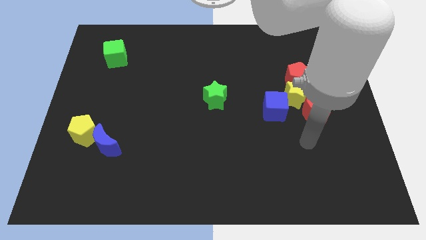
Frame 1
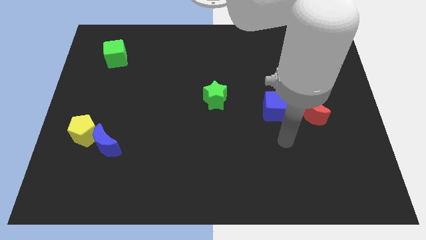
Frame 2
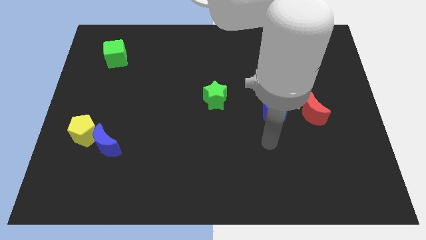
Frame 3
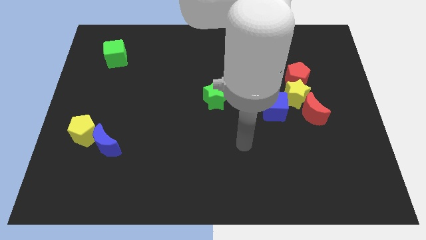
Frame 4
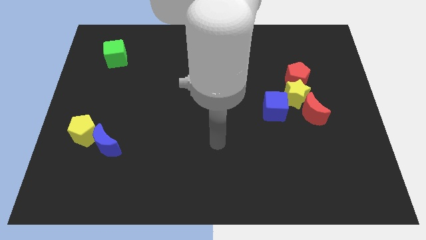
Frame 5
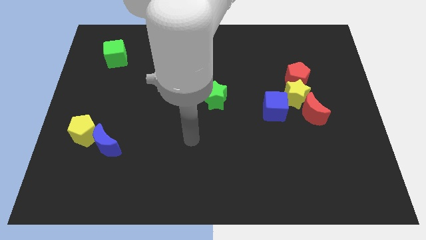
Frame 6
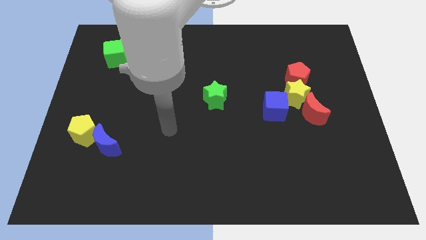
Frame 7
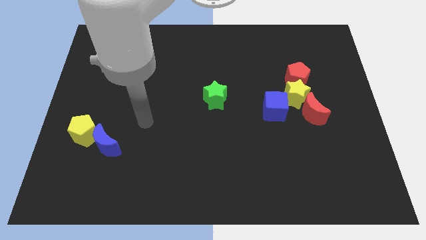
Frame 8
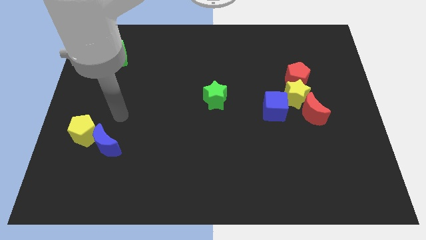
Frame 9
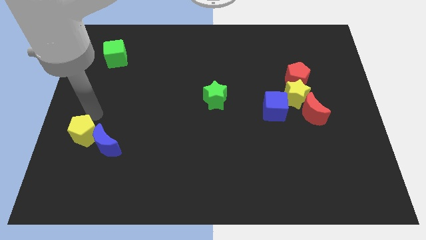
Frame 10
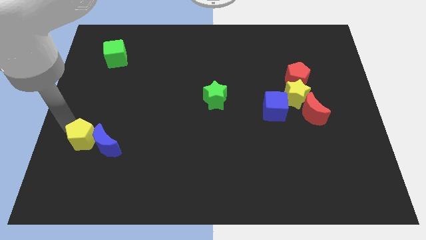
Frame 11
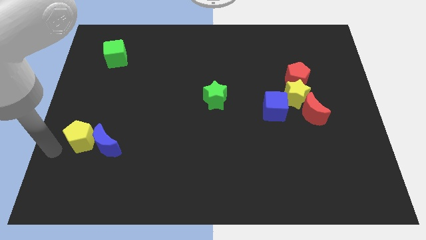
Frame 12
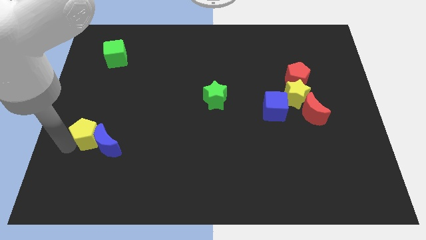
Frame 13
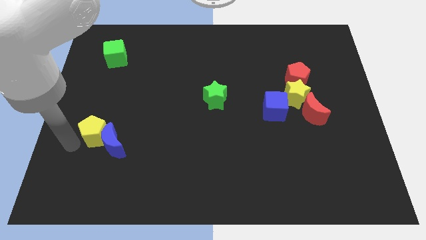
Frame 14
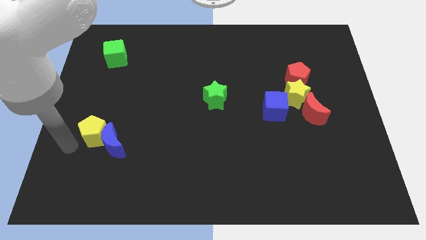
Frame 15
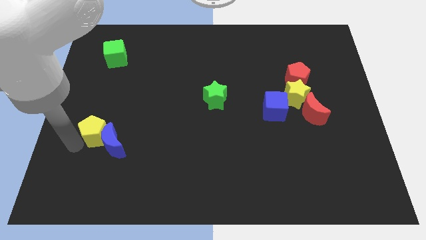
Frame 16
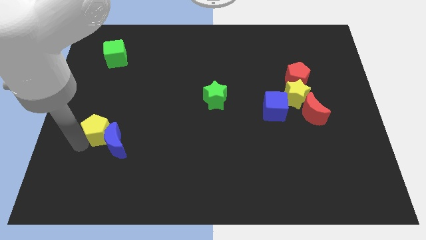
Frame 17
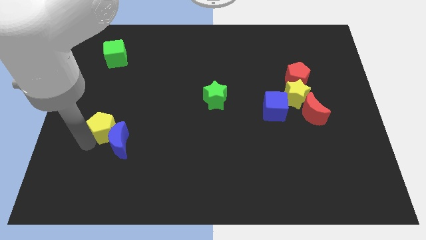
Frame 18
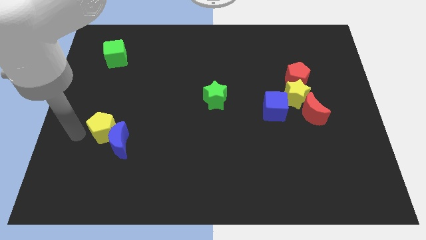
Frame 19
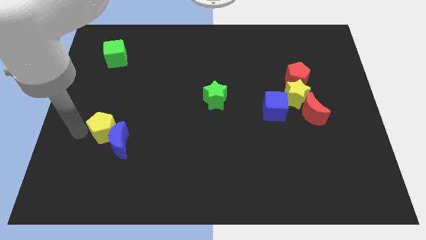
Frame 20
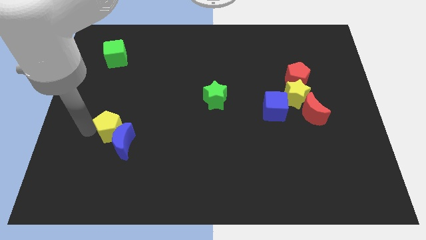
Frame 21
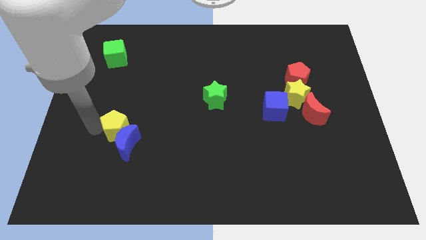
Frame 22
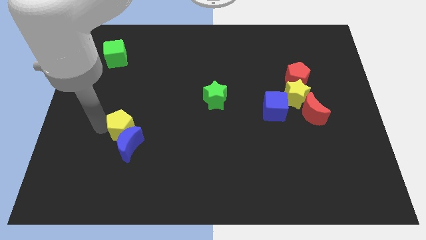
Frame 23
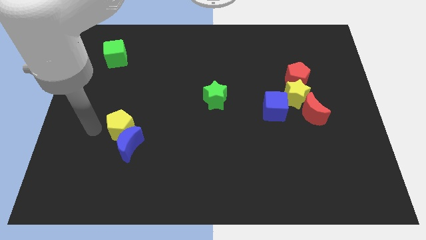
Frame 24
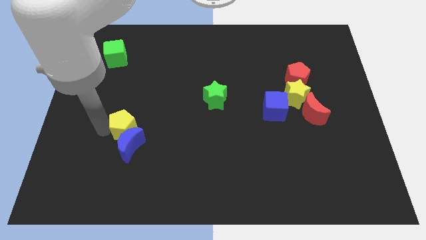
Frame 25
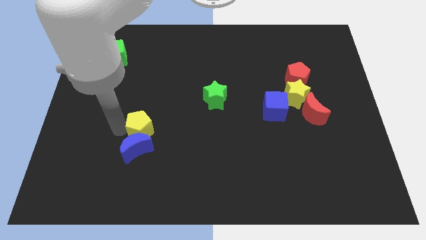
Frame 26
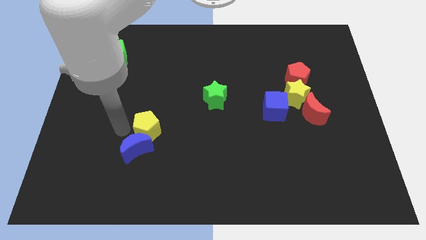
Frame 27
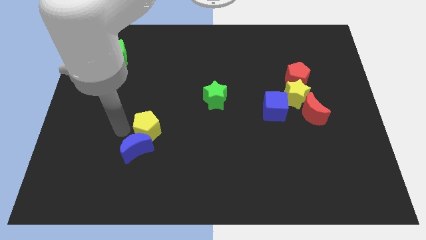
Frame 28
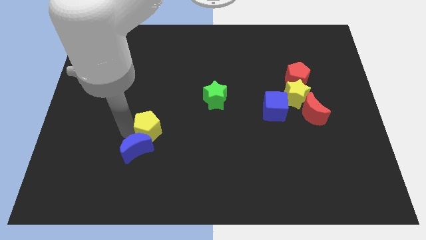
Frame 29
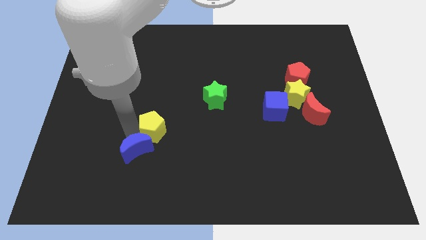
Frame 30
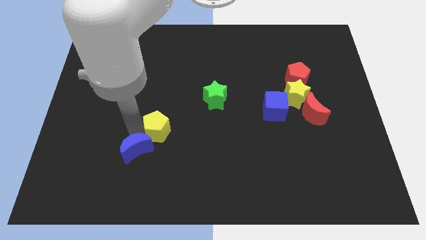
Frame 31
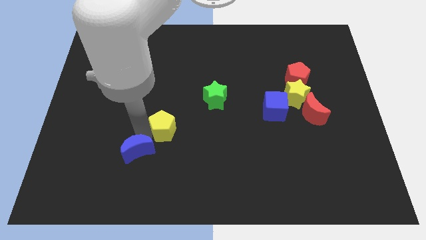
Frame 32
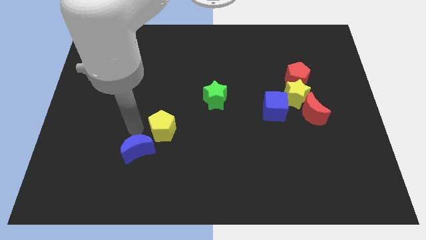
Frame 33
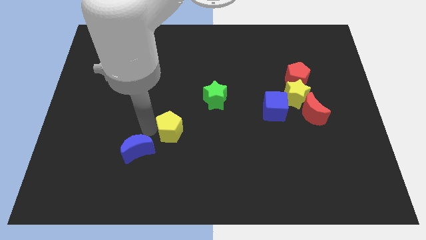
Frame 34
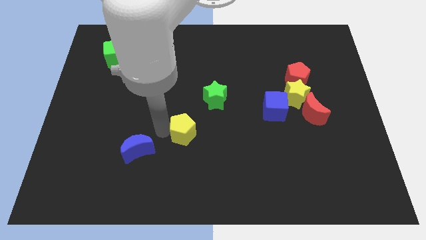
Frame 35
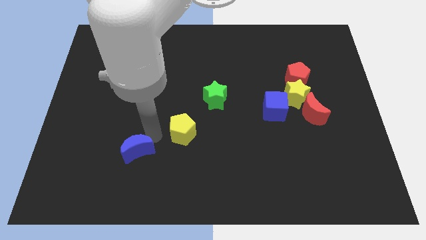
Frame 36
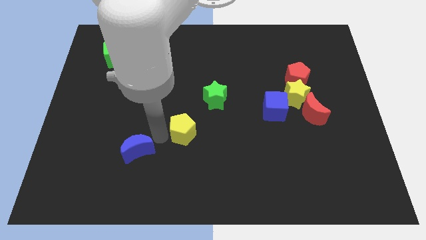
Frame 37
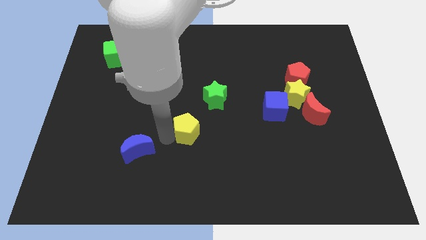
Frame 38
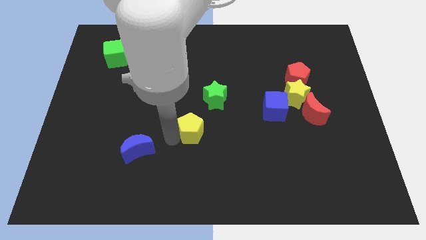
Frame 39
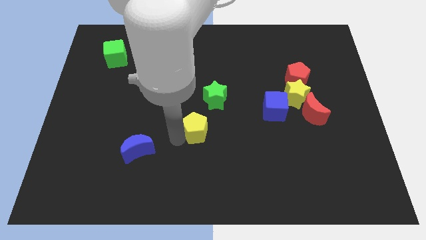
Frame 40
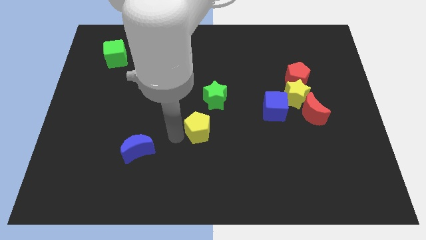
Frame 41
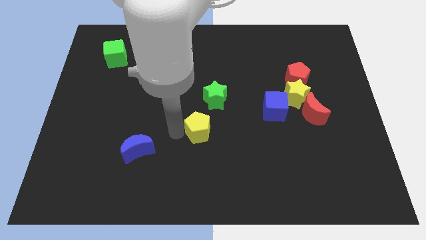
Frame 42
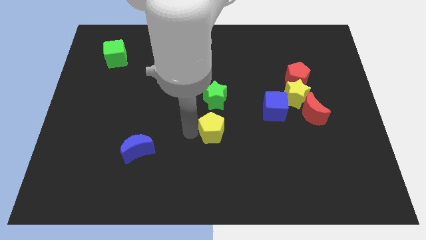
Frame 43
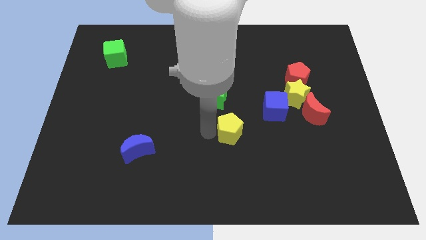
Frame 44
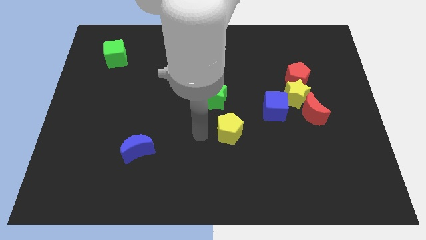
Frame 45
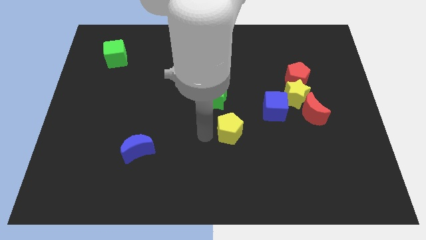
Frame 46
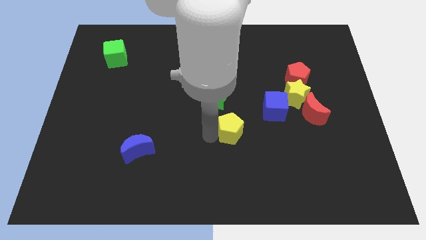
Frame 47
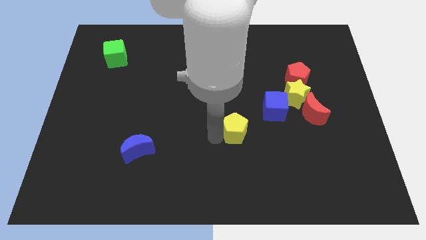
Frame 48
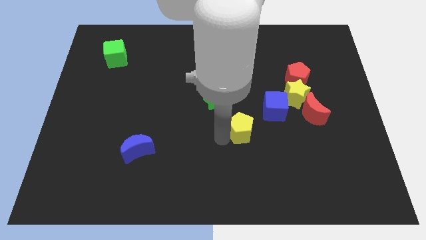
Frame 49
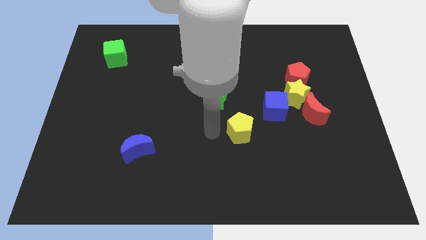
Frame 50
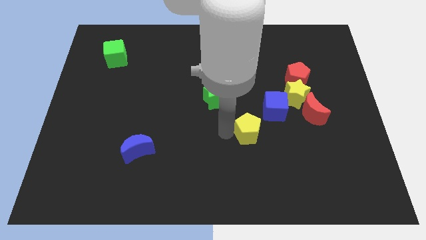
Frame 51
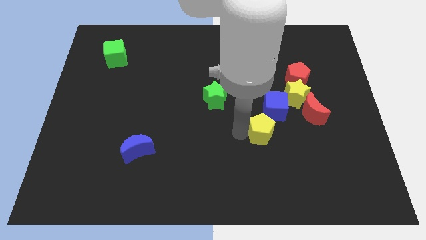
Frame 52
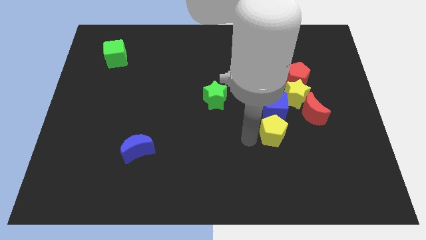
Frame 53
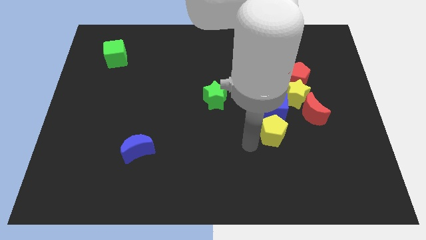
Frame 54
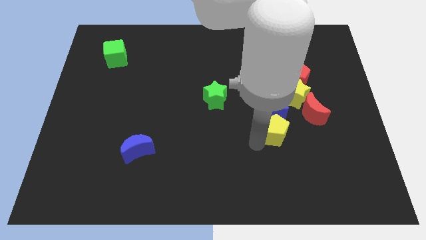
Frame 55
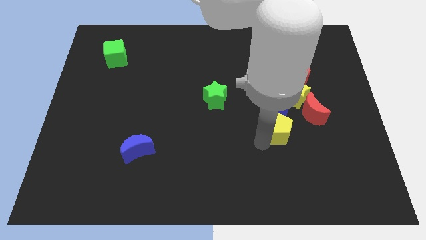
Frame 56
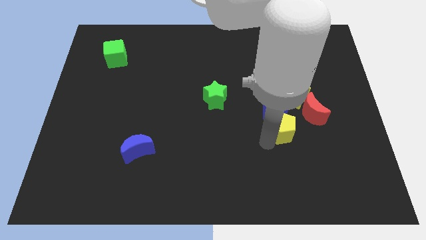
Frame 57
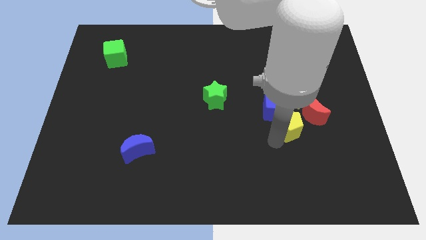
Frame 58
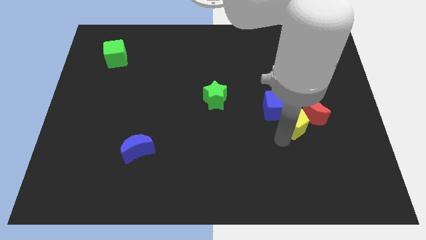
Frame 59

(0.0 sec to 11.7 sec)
put the yellow pentagon close to the red moon

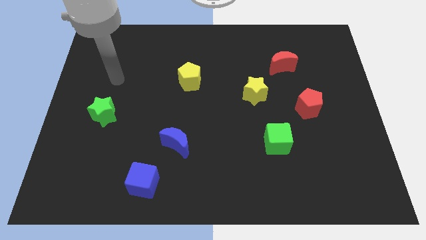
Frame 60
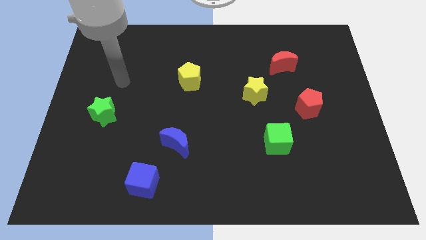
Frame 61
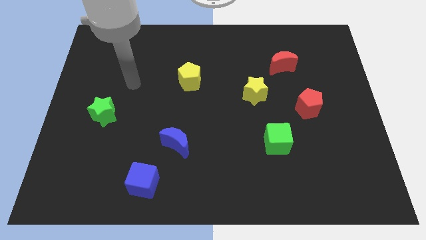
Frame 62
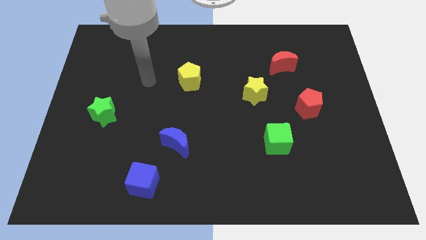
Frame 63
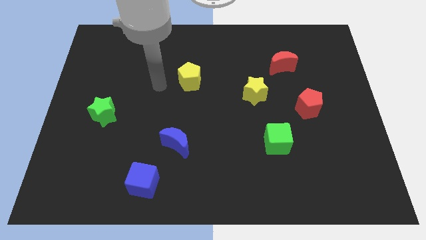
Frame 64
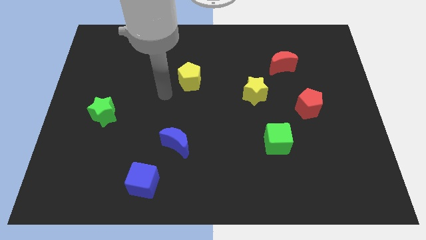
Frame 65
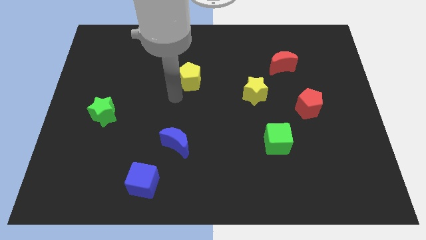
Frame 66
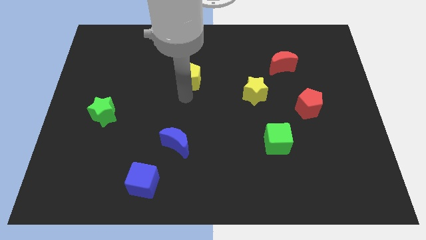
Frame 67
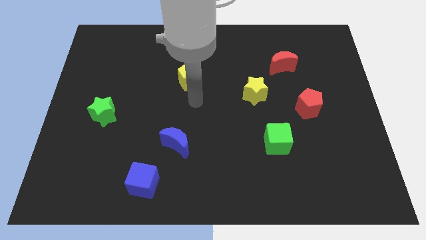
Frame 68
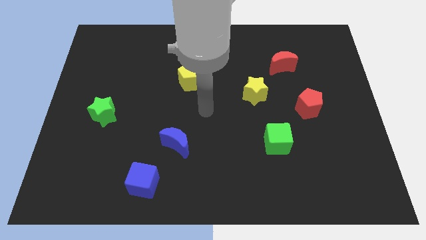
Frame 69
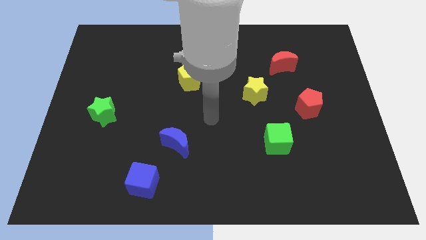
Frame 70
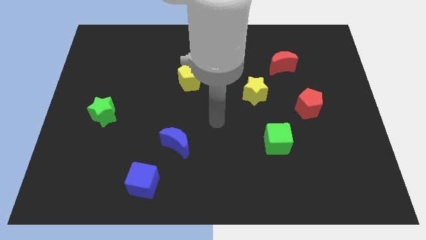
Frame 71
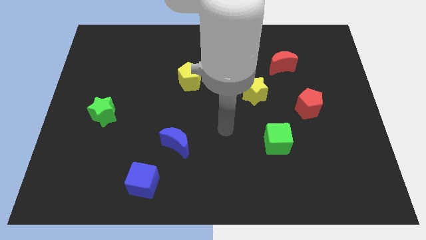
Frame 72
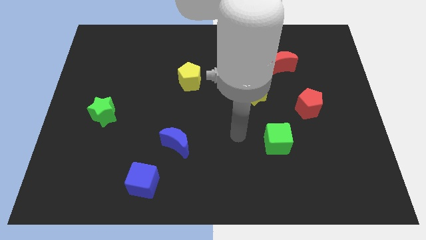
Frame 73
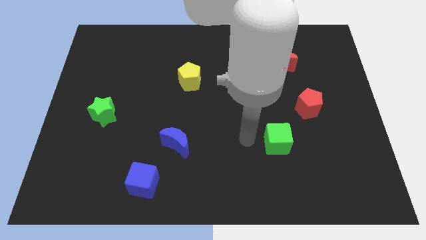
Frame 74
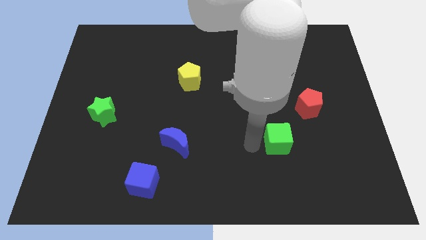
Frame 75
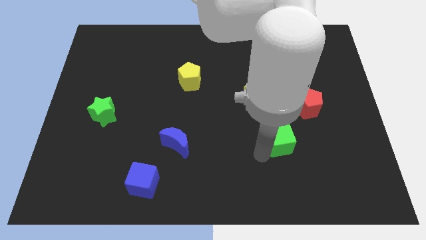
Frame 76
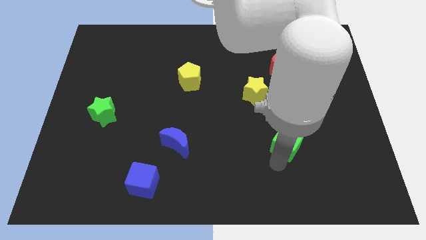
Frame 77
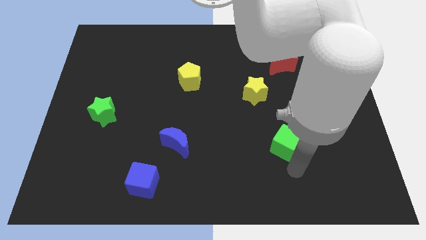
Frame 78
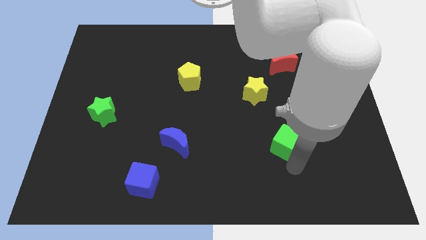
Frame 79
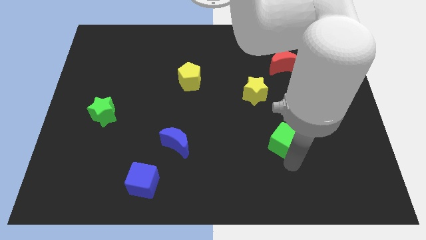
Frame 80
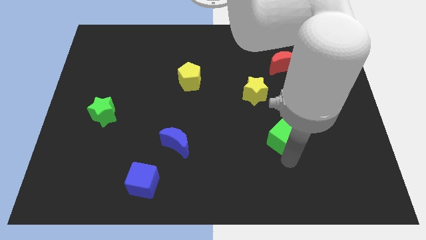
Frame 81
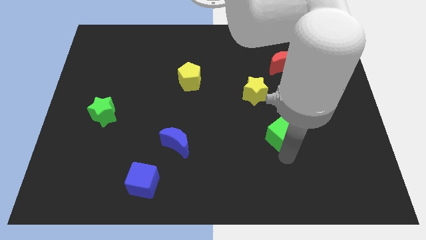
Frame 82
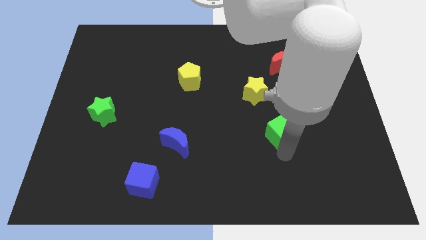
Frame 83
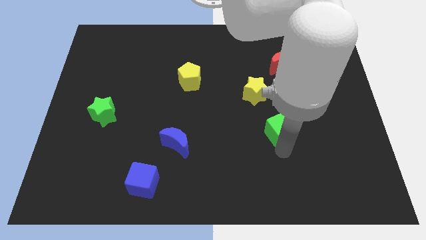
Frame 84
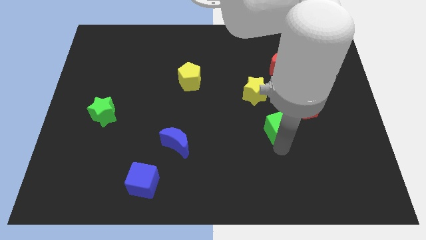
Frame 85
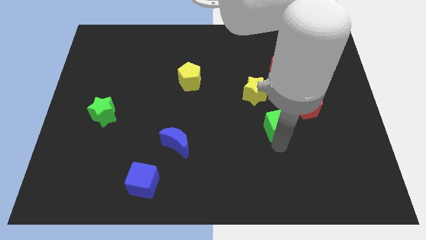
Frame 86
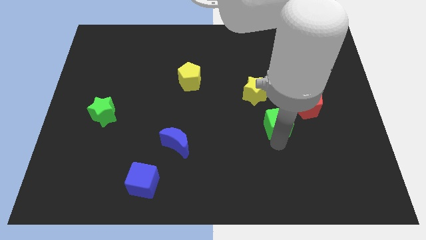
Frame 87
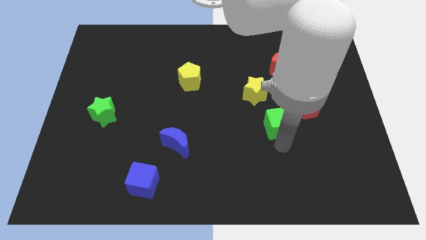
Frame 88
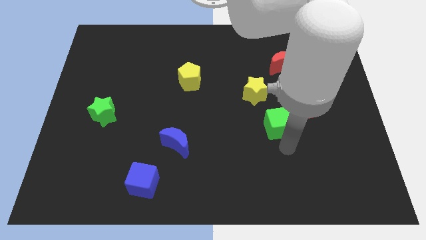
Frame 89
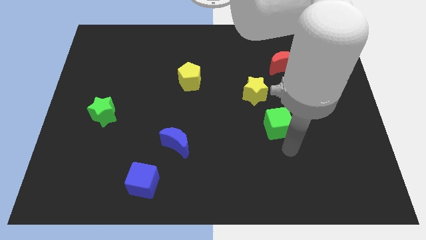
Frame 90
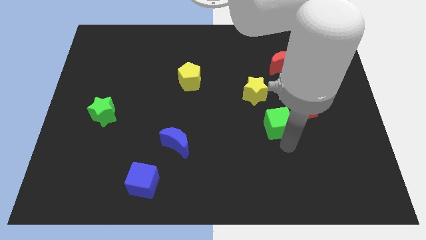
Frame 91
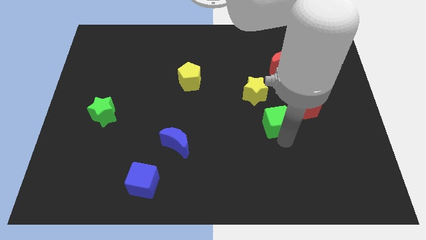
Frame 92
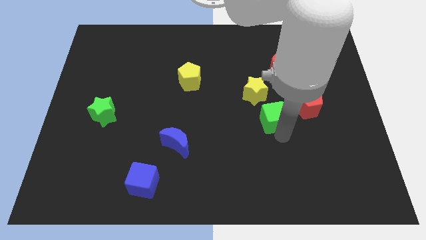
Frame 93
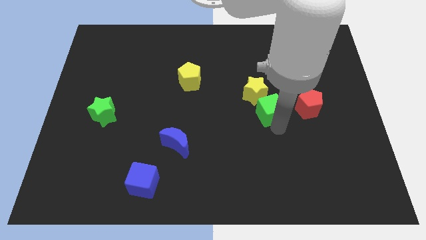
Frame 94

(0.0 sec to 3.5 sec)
push the green cube to the yellow star
